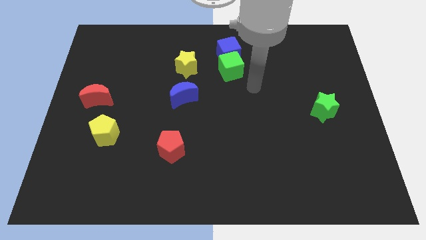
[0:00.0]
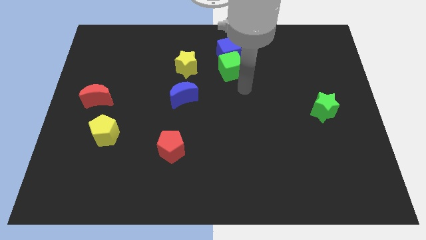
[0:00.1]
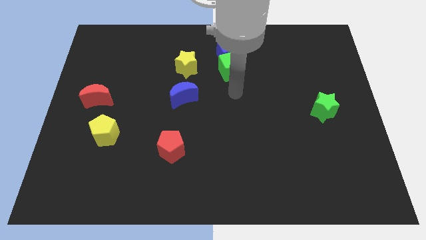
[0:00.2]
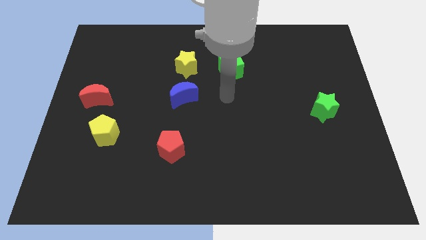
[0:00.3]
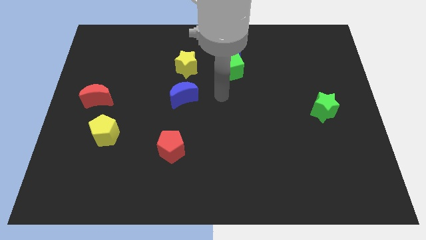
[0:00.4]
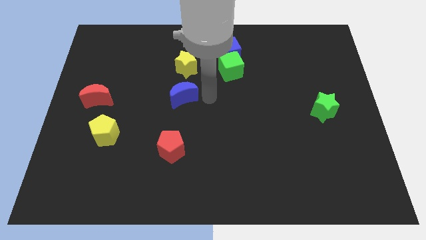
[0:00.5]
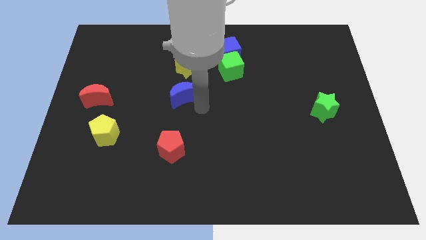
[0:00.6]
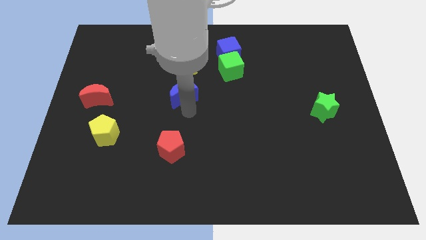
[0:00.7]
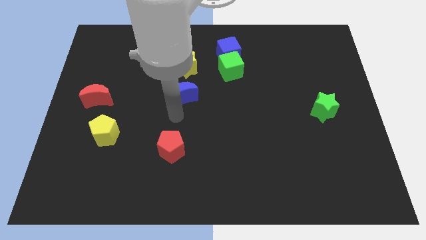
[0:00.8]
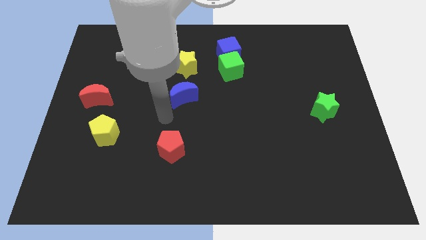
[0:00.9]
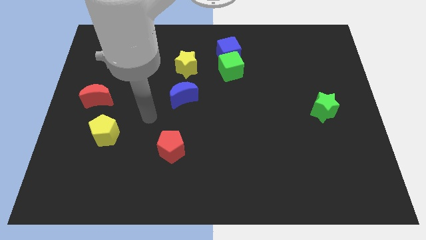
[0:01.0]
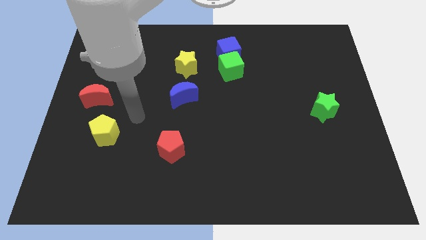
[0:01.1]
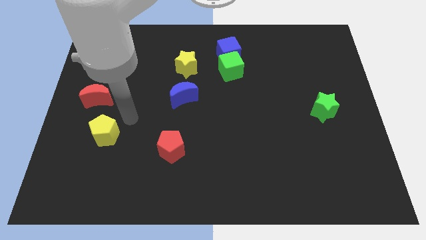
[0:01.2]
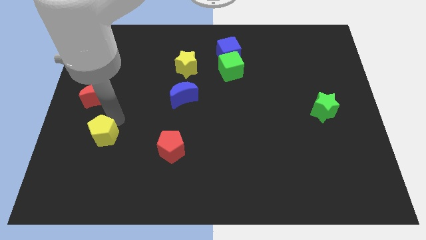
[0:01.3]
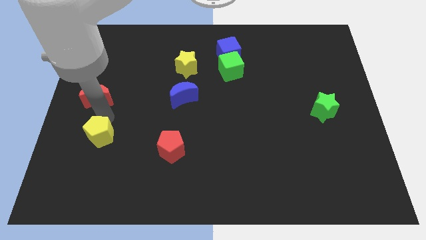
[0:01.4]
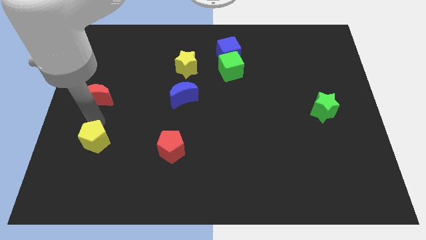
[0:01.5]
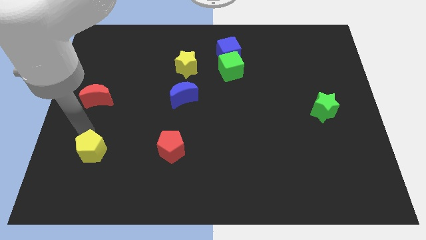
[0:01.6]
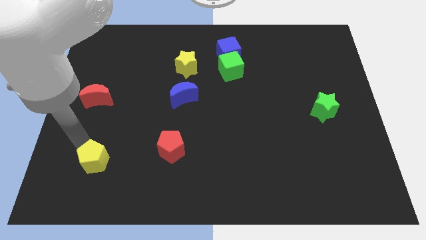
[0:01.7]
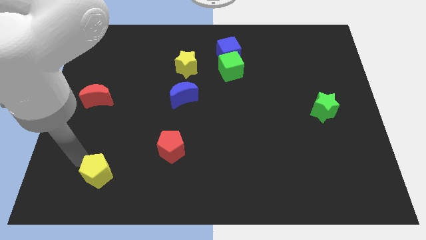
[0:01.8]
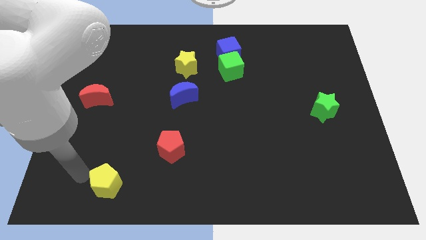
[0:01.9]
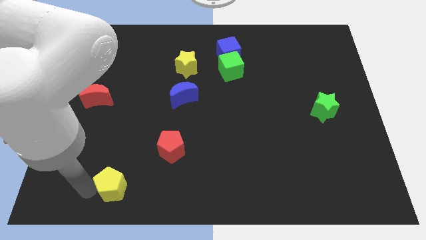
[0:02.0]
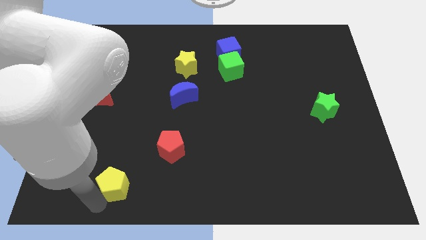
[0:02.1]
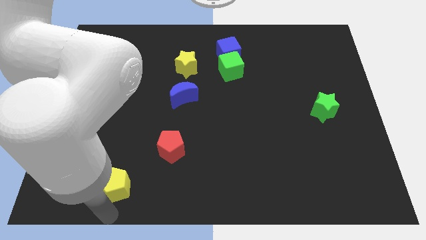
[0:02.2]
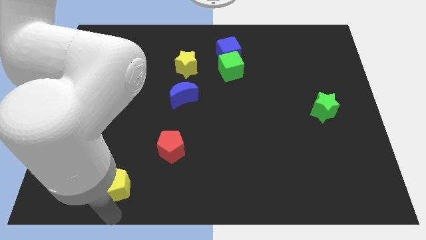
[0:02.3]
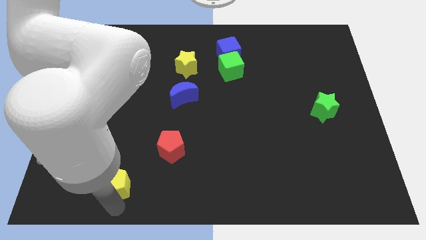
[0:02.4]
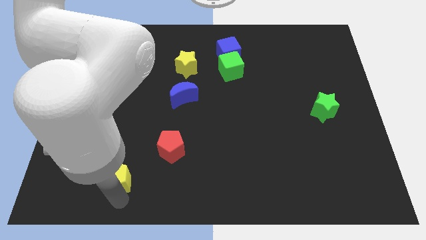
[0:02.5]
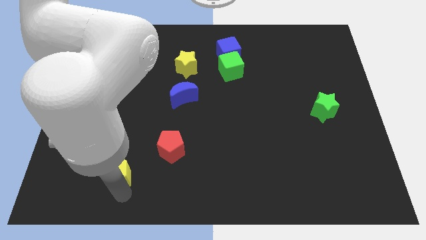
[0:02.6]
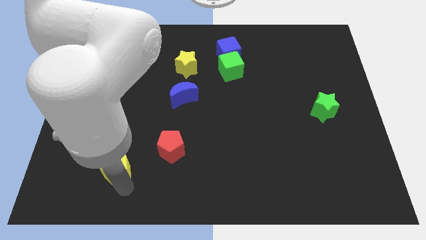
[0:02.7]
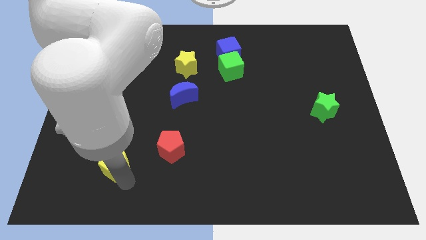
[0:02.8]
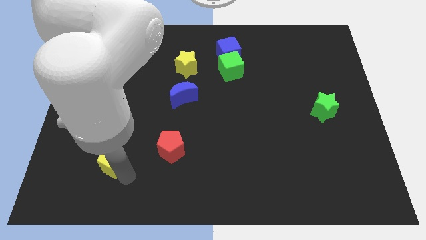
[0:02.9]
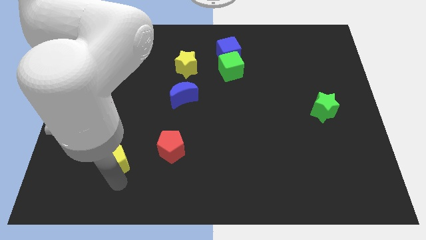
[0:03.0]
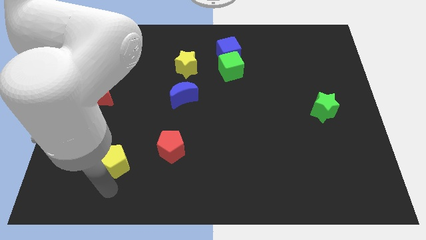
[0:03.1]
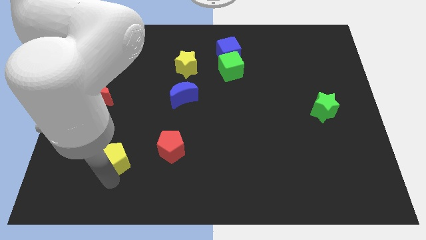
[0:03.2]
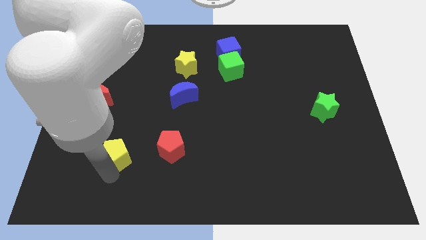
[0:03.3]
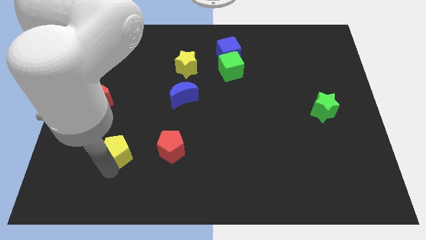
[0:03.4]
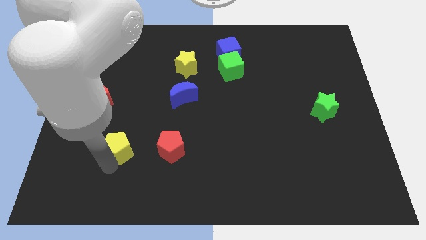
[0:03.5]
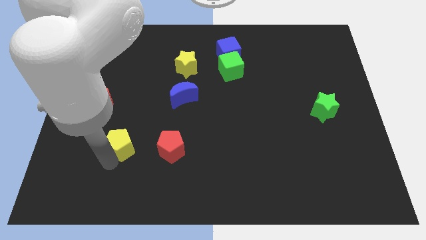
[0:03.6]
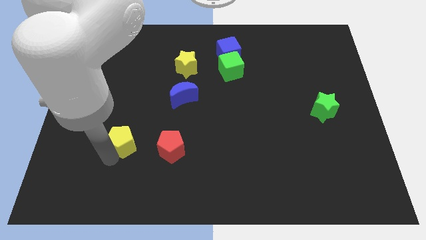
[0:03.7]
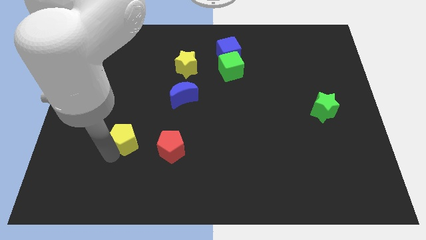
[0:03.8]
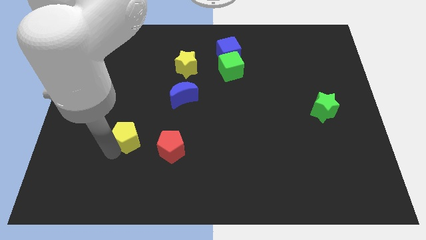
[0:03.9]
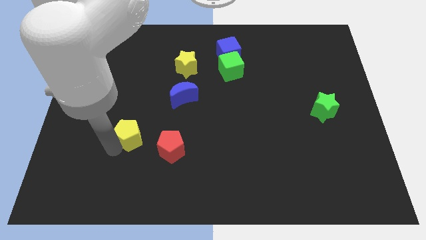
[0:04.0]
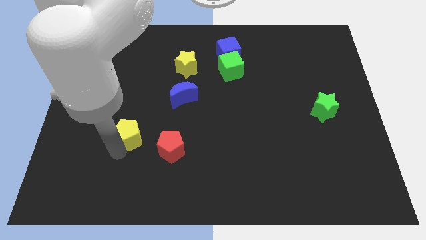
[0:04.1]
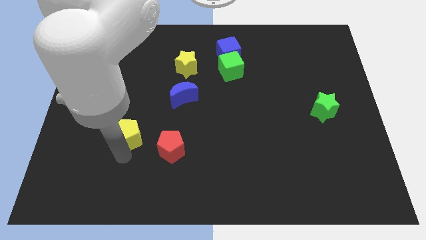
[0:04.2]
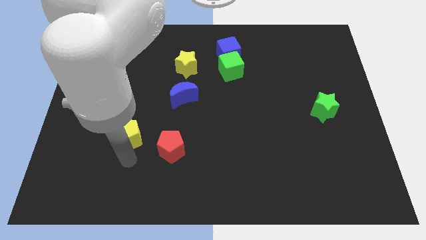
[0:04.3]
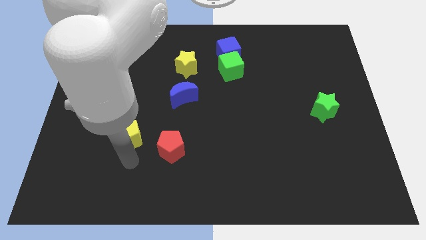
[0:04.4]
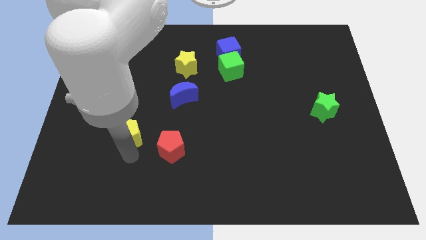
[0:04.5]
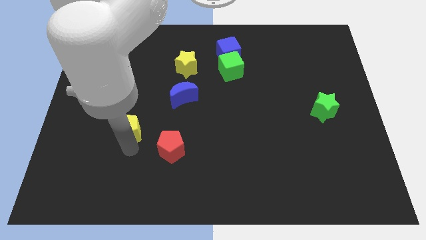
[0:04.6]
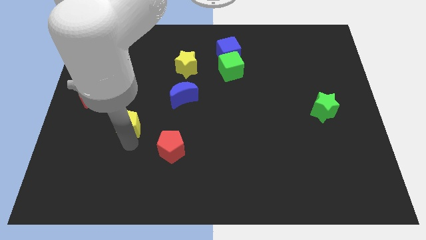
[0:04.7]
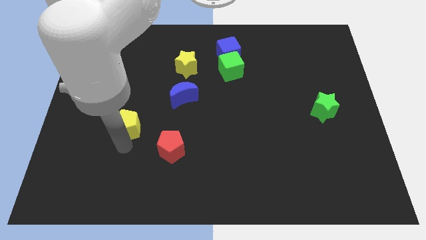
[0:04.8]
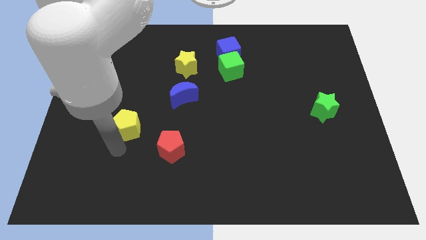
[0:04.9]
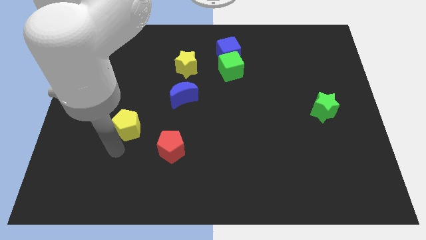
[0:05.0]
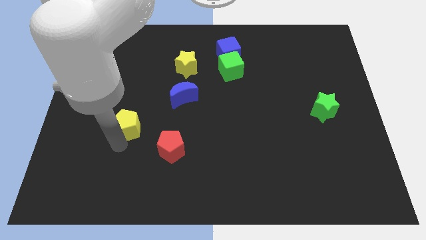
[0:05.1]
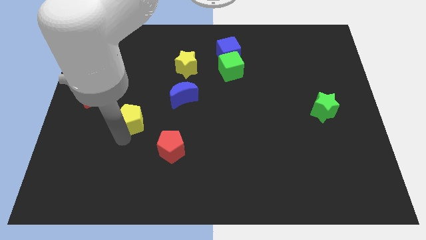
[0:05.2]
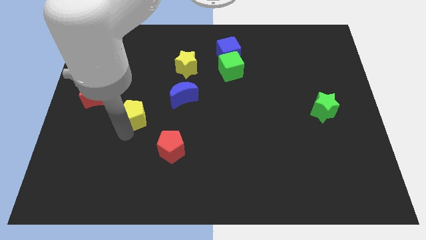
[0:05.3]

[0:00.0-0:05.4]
push the yellow pentagon somewhat up and to the right diagonally

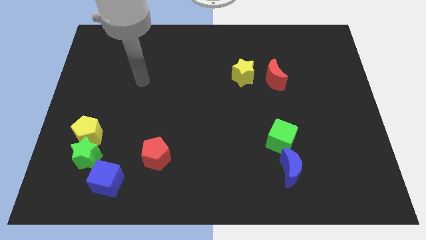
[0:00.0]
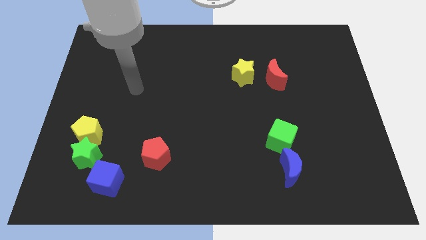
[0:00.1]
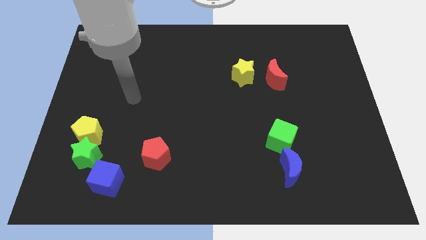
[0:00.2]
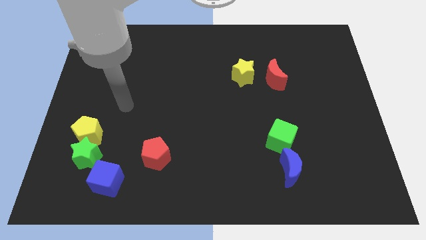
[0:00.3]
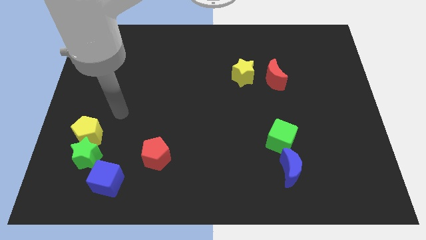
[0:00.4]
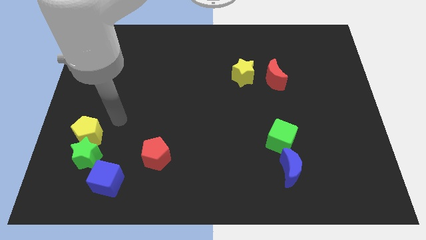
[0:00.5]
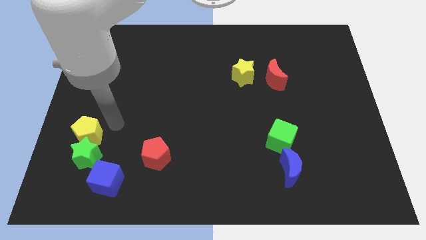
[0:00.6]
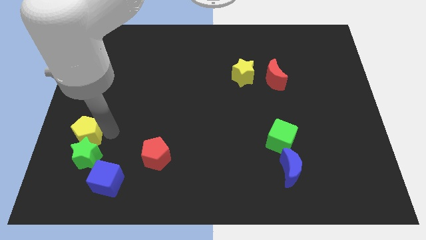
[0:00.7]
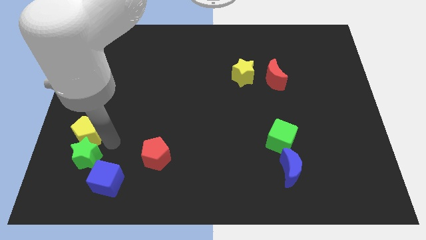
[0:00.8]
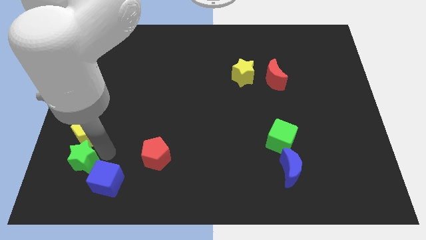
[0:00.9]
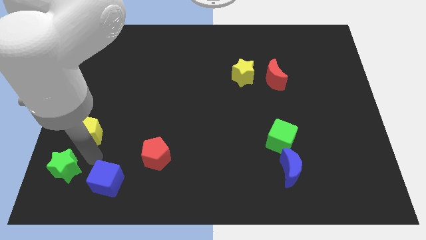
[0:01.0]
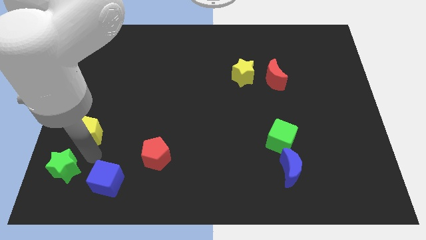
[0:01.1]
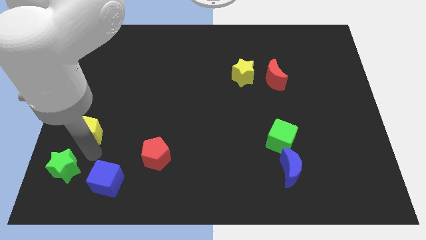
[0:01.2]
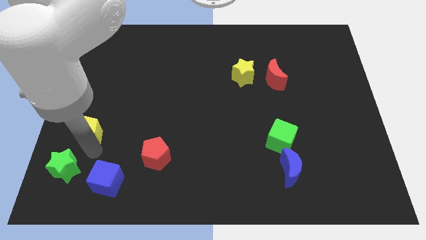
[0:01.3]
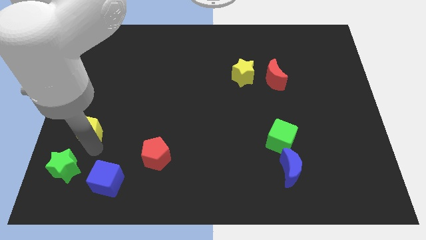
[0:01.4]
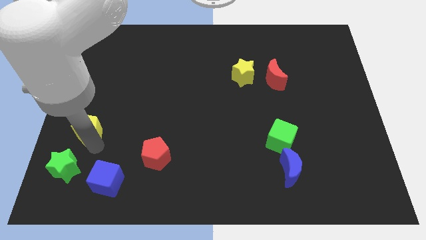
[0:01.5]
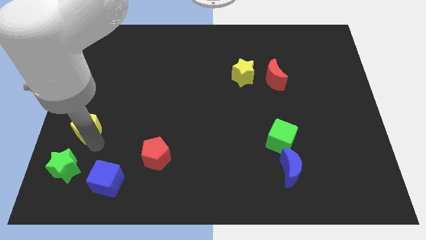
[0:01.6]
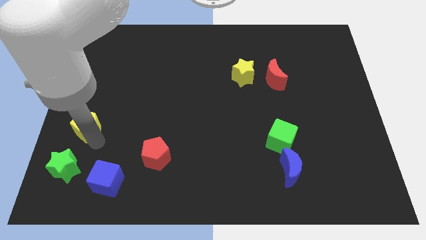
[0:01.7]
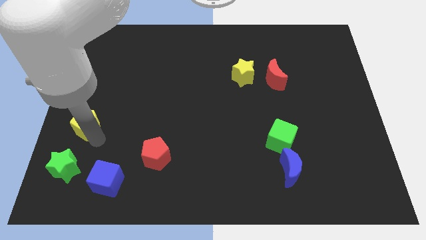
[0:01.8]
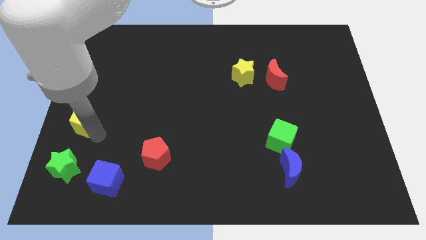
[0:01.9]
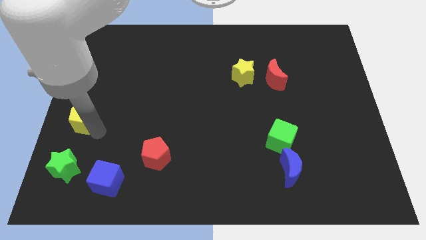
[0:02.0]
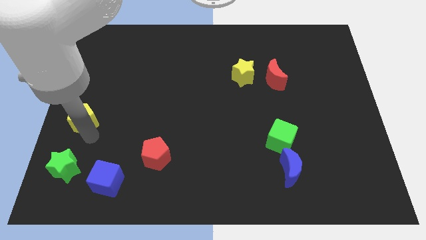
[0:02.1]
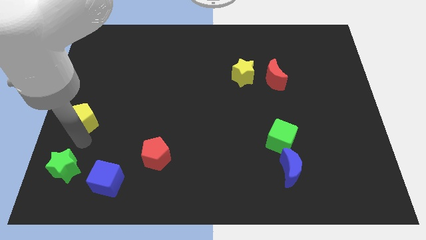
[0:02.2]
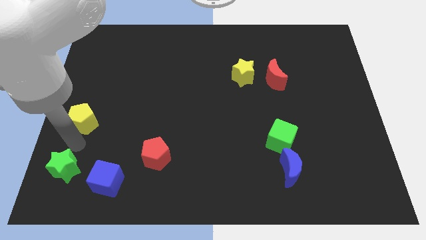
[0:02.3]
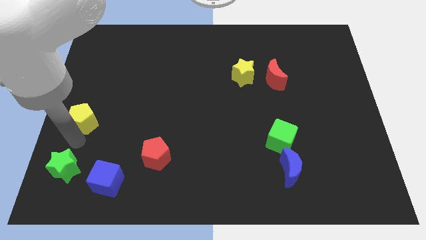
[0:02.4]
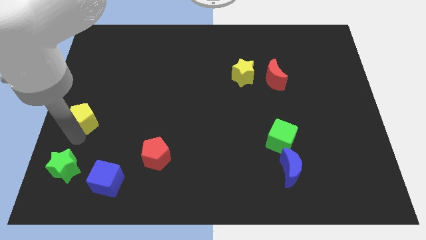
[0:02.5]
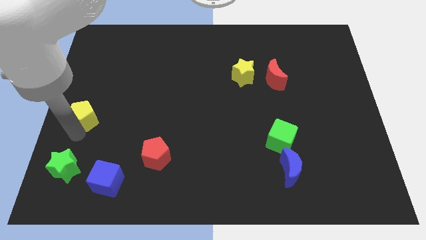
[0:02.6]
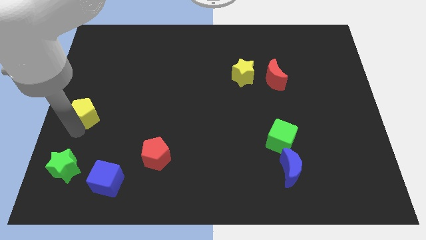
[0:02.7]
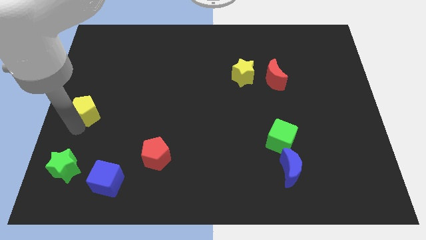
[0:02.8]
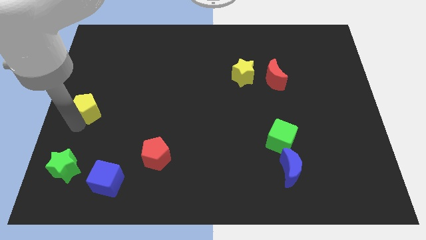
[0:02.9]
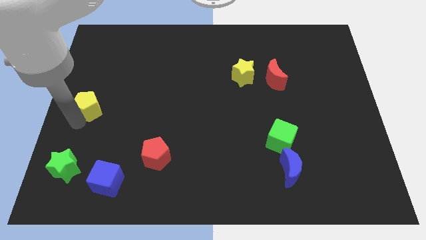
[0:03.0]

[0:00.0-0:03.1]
push the yellow pentagon upwards a little

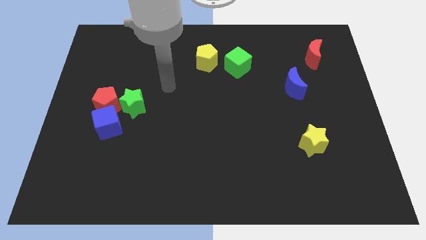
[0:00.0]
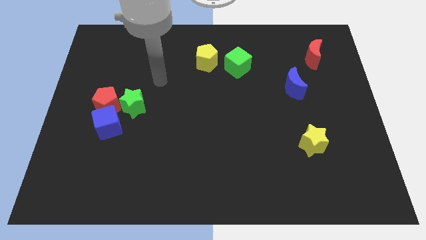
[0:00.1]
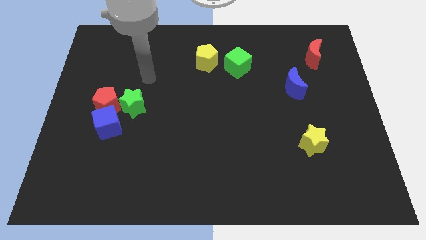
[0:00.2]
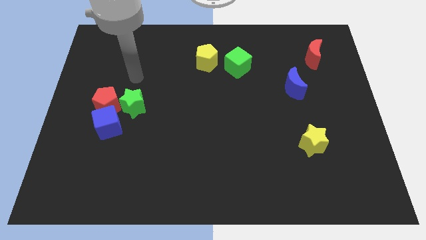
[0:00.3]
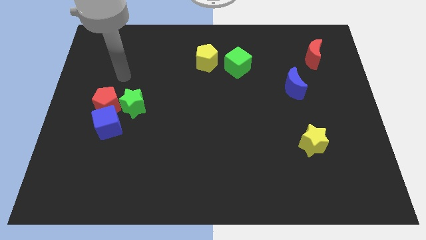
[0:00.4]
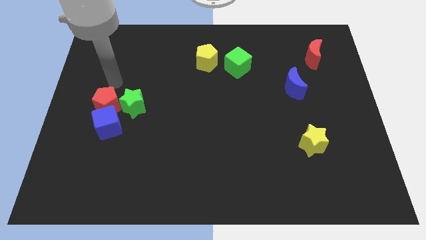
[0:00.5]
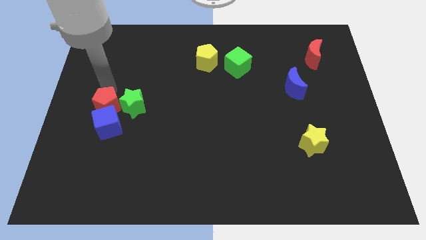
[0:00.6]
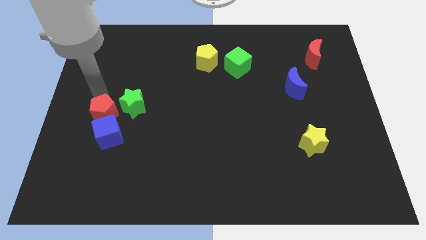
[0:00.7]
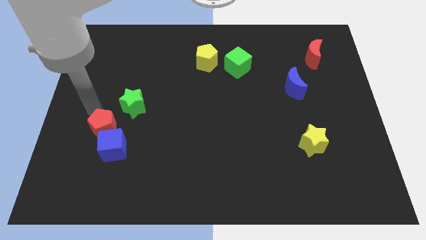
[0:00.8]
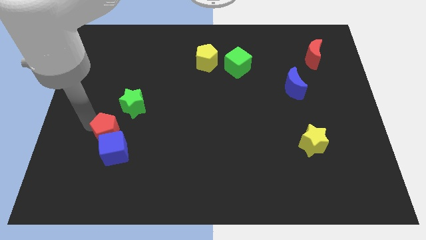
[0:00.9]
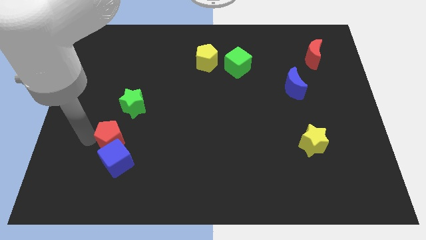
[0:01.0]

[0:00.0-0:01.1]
move the blue cube a little downwards and to the right
